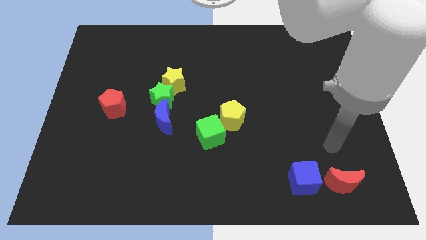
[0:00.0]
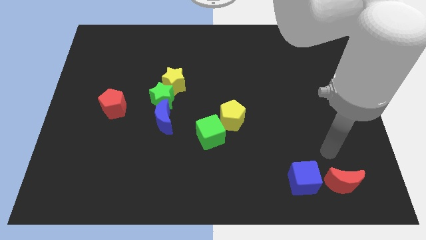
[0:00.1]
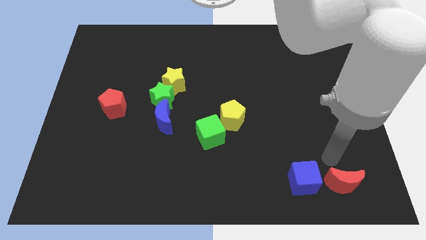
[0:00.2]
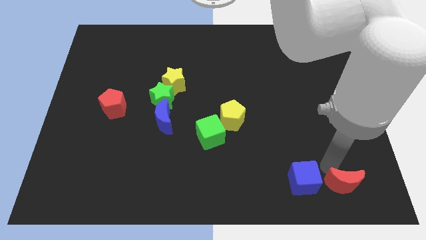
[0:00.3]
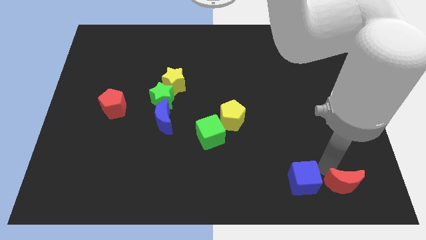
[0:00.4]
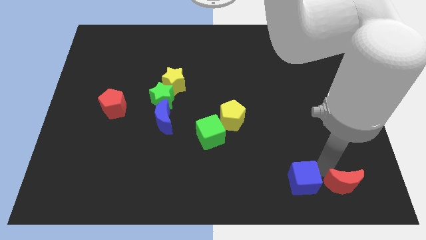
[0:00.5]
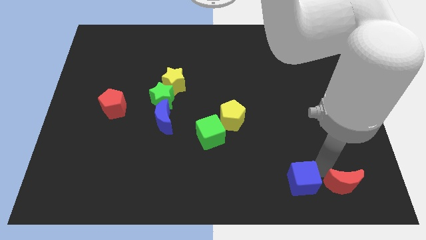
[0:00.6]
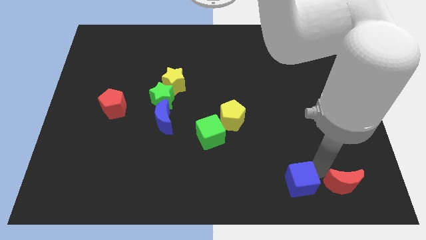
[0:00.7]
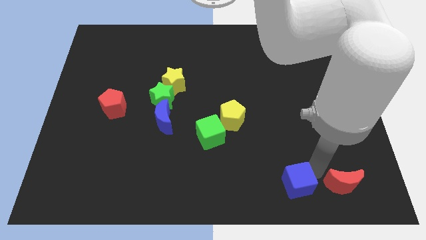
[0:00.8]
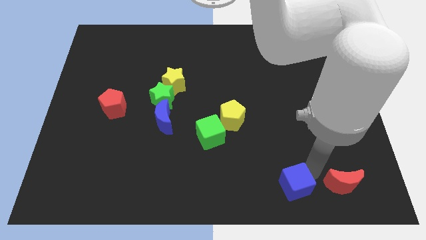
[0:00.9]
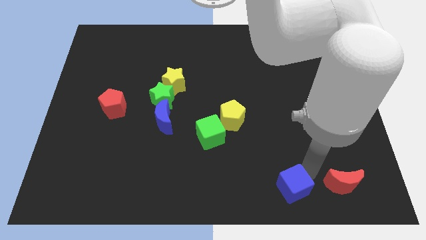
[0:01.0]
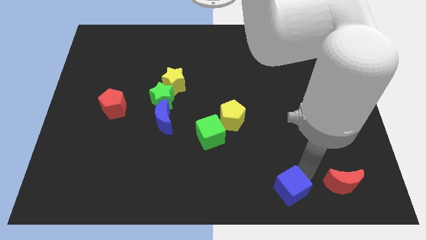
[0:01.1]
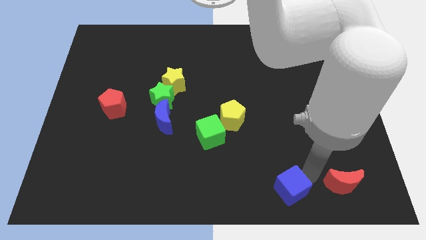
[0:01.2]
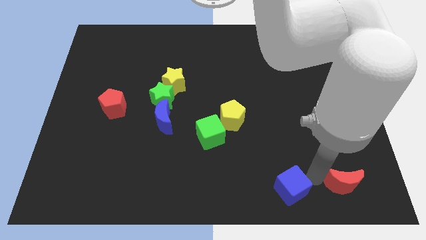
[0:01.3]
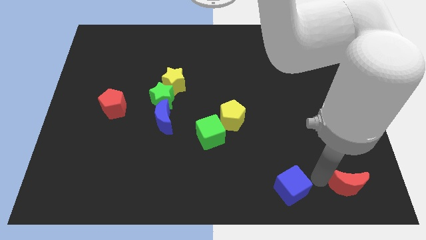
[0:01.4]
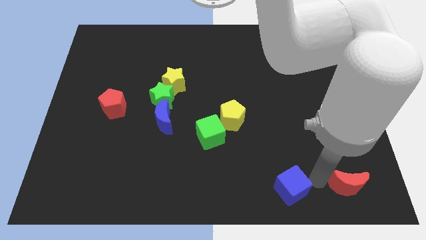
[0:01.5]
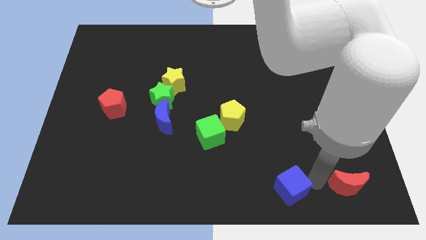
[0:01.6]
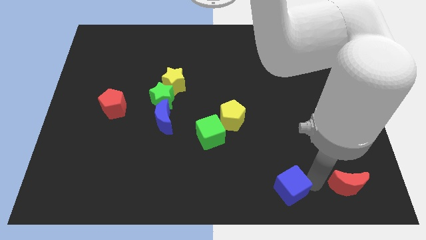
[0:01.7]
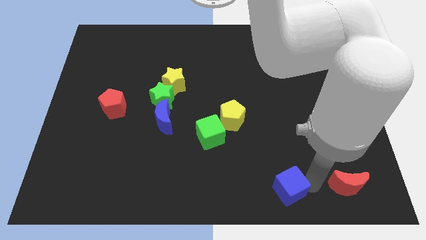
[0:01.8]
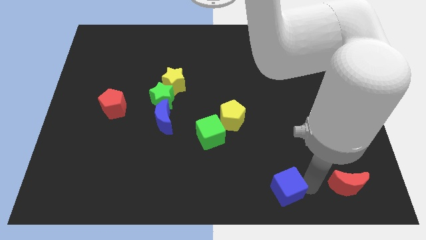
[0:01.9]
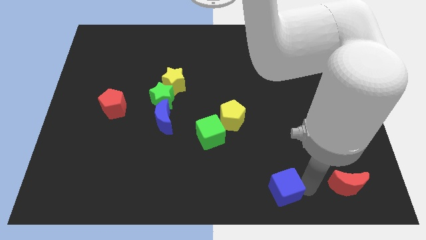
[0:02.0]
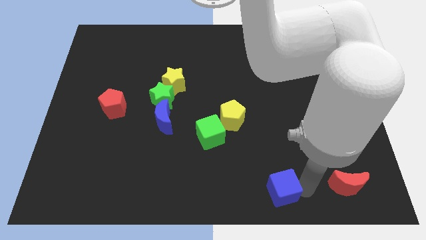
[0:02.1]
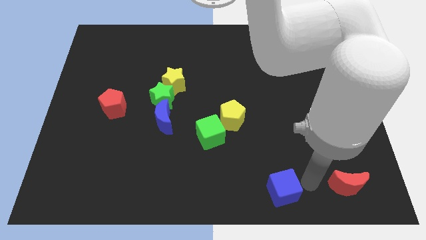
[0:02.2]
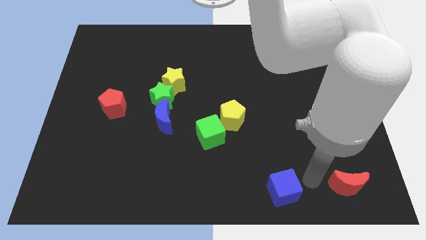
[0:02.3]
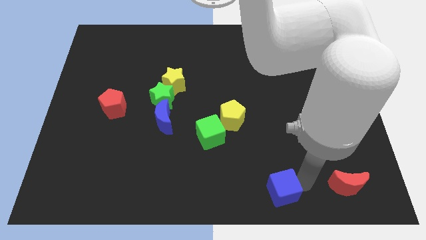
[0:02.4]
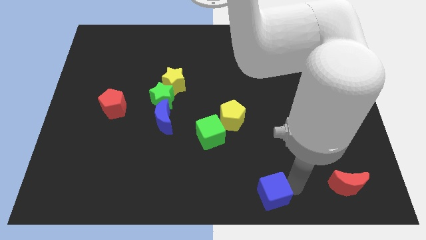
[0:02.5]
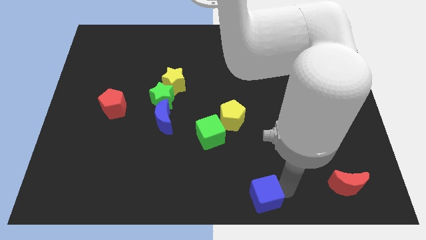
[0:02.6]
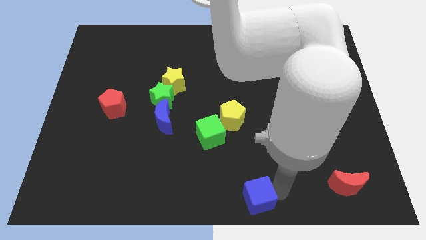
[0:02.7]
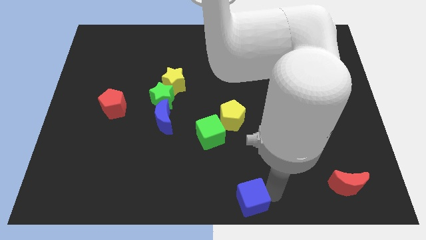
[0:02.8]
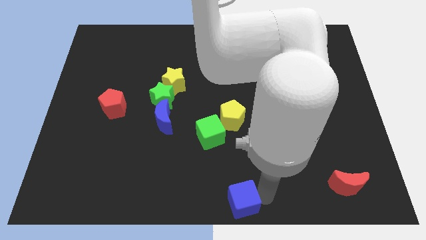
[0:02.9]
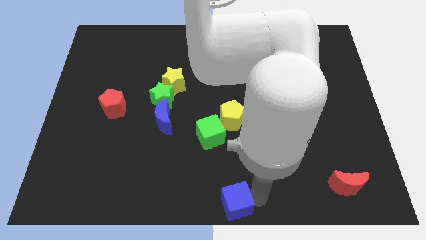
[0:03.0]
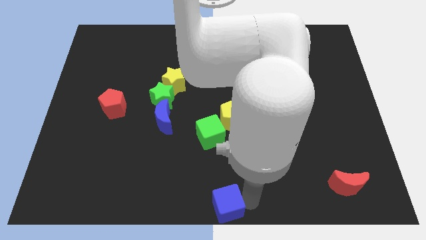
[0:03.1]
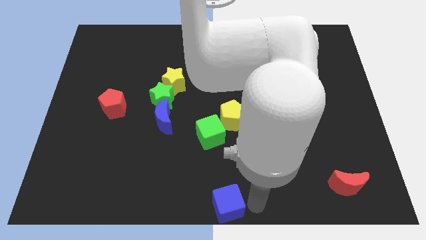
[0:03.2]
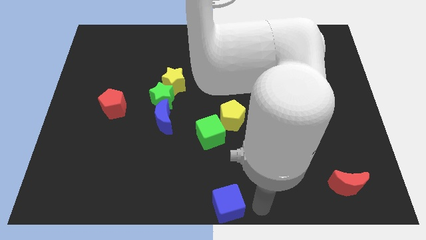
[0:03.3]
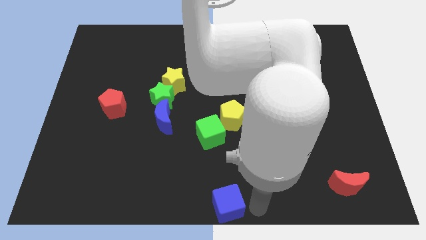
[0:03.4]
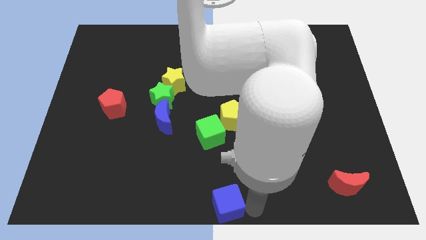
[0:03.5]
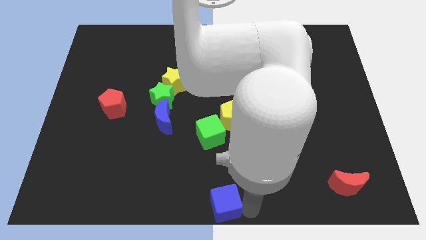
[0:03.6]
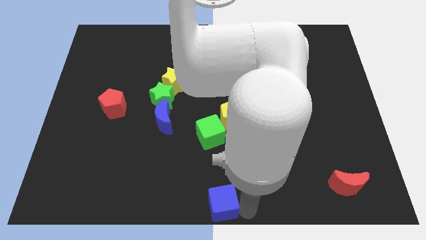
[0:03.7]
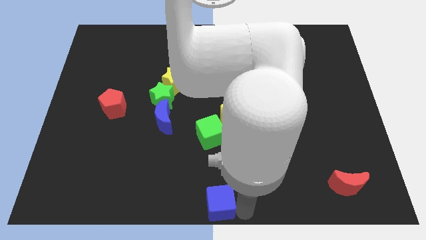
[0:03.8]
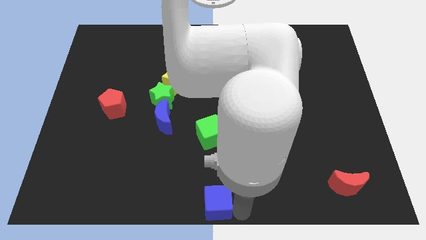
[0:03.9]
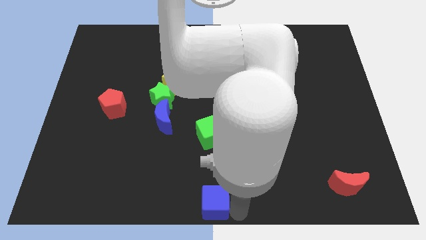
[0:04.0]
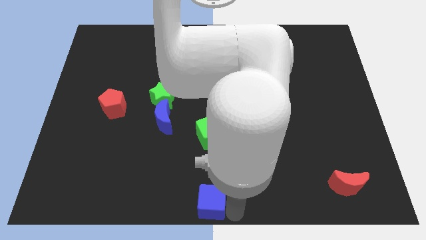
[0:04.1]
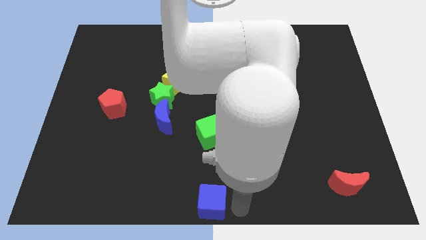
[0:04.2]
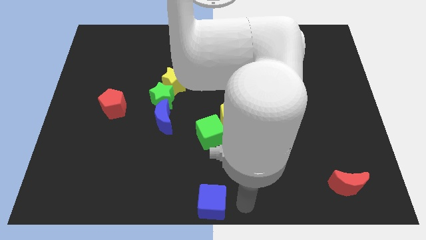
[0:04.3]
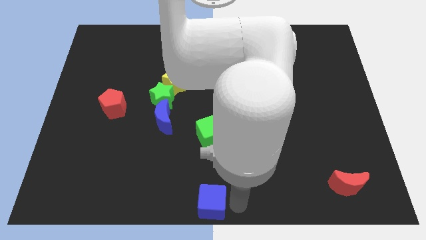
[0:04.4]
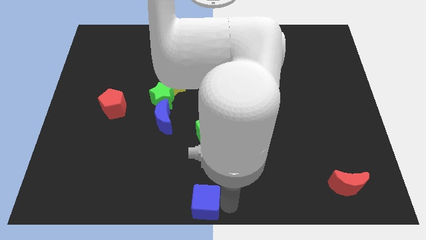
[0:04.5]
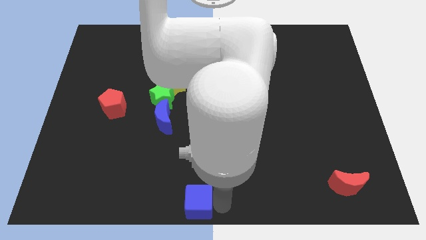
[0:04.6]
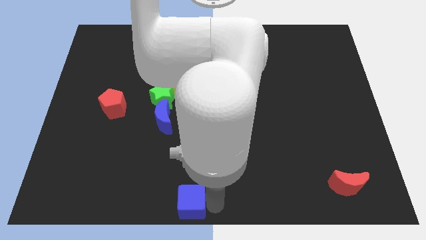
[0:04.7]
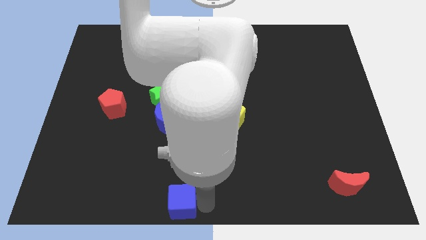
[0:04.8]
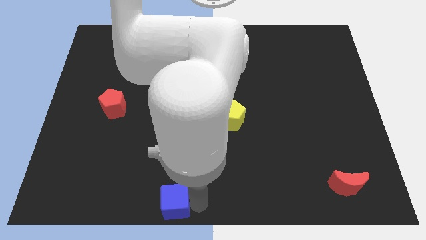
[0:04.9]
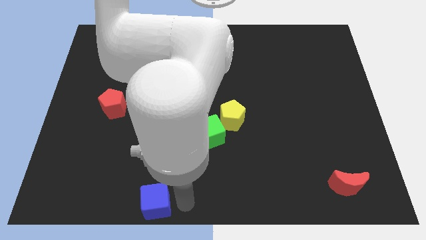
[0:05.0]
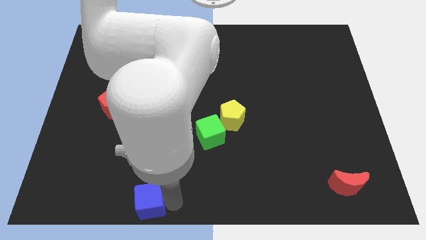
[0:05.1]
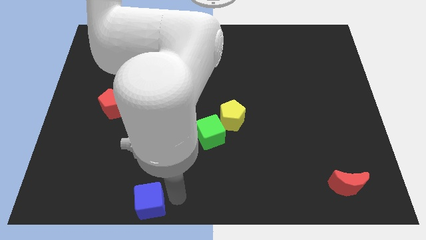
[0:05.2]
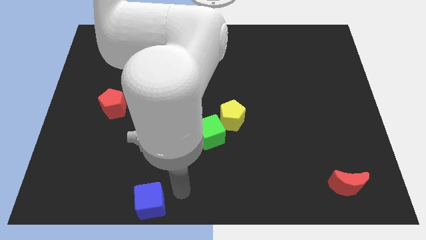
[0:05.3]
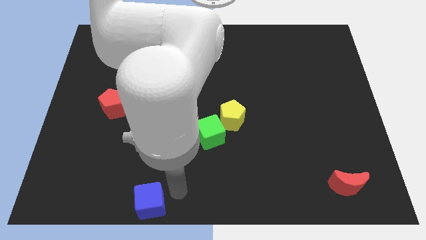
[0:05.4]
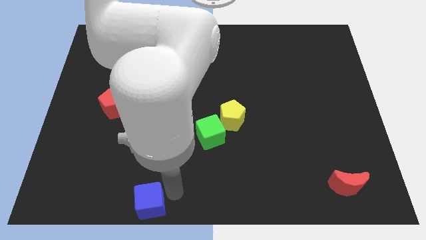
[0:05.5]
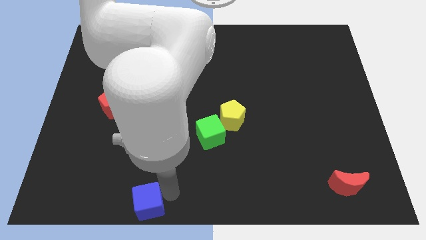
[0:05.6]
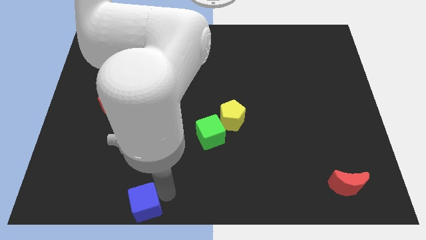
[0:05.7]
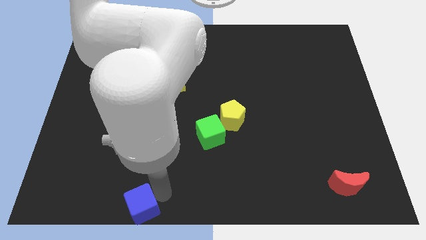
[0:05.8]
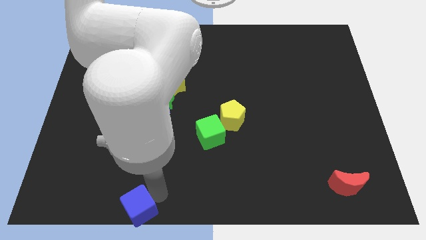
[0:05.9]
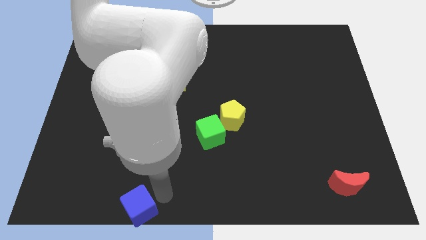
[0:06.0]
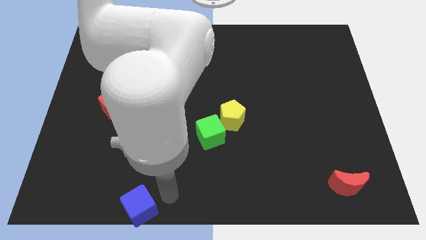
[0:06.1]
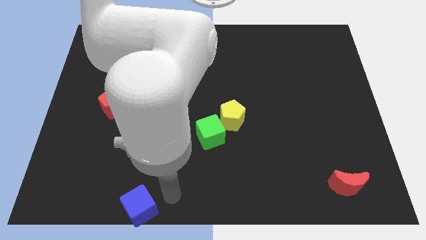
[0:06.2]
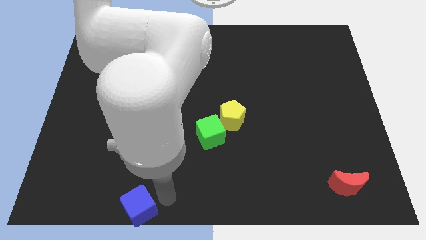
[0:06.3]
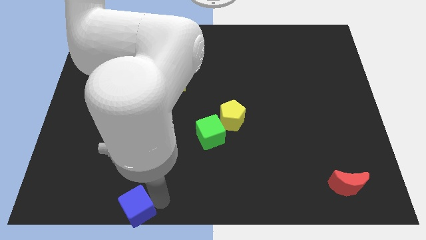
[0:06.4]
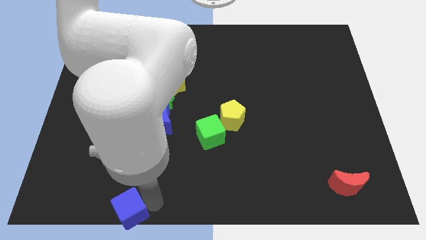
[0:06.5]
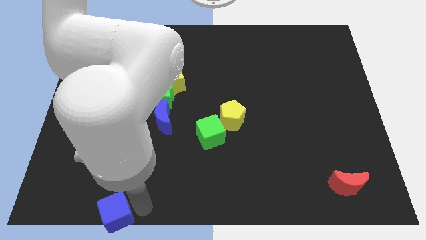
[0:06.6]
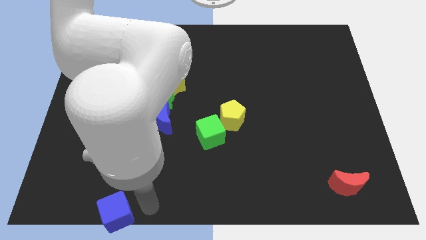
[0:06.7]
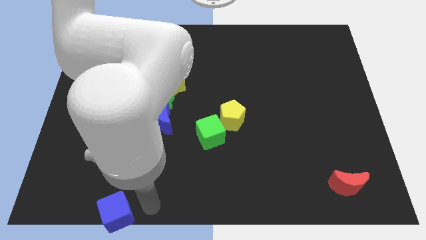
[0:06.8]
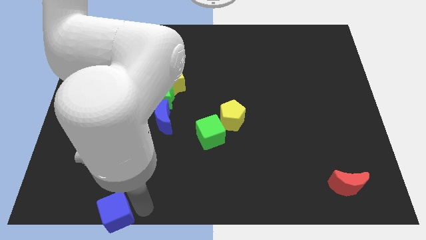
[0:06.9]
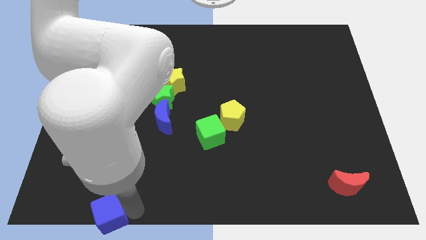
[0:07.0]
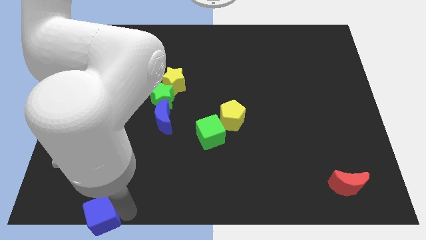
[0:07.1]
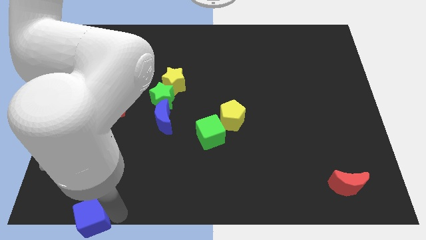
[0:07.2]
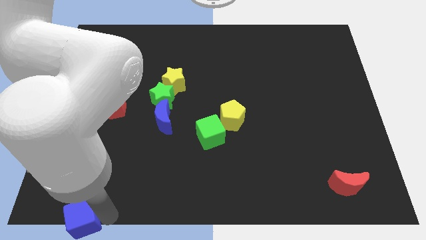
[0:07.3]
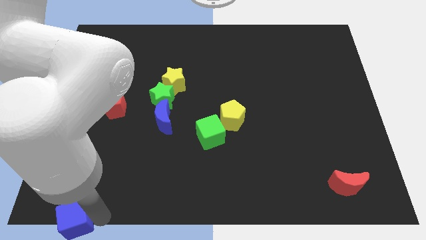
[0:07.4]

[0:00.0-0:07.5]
push the blue cube to the bottom left corner
